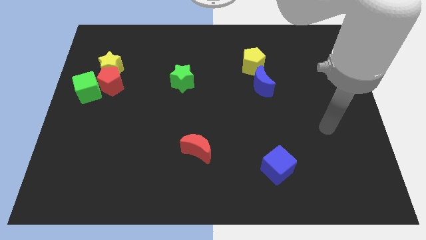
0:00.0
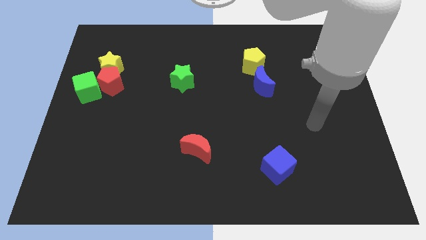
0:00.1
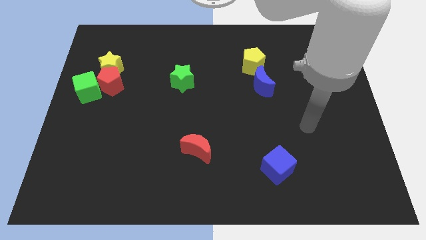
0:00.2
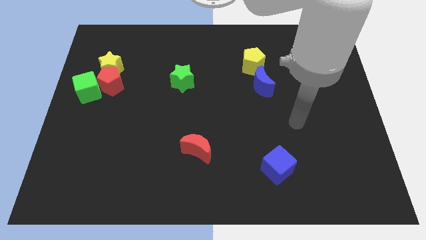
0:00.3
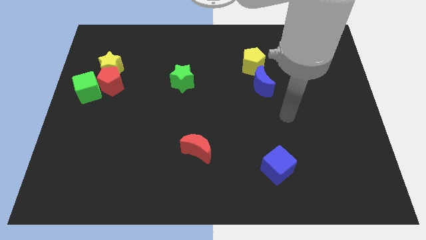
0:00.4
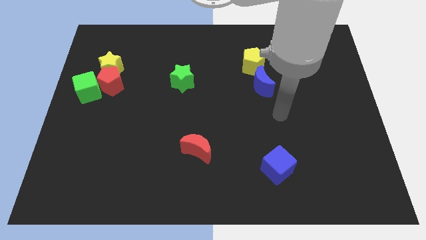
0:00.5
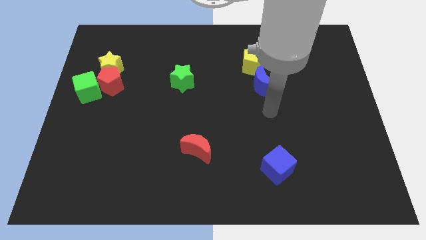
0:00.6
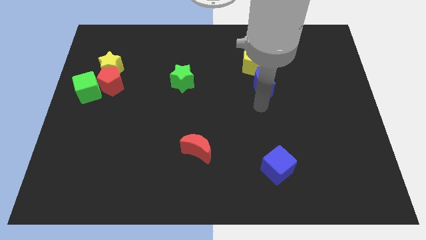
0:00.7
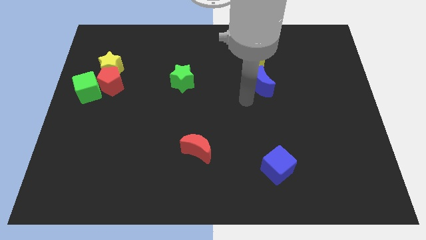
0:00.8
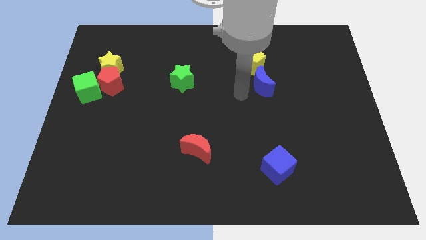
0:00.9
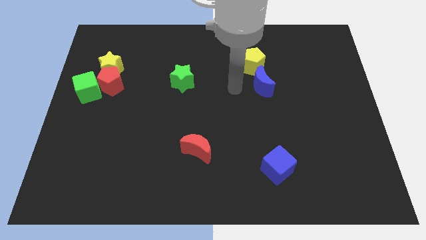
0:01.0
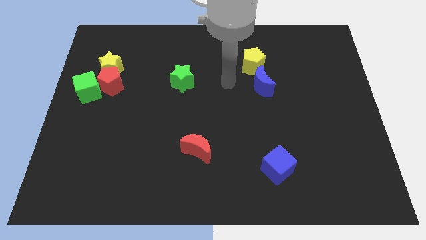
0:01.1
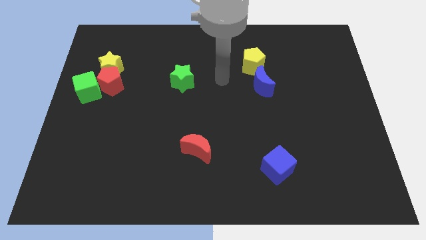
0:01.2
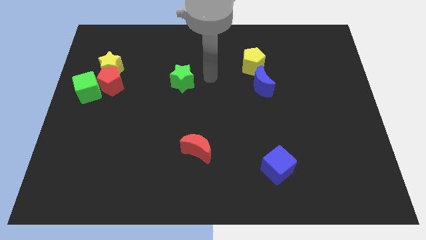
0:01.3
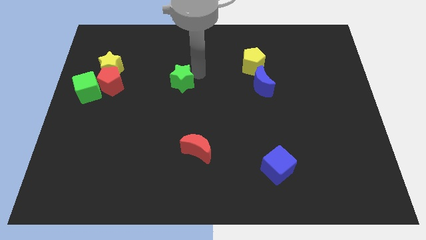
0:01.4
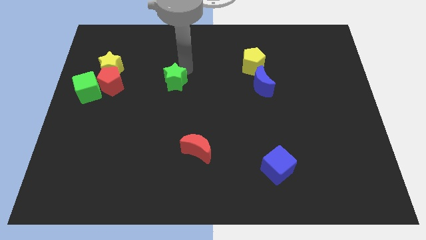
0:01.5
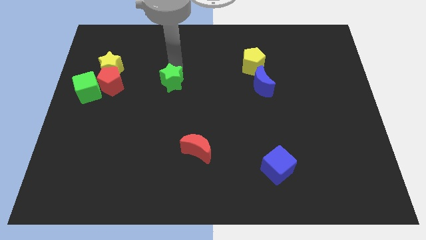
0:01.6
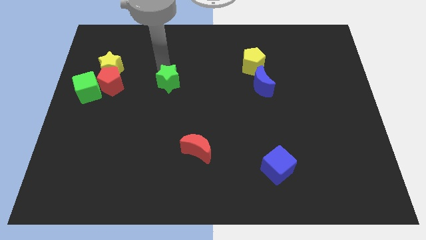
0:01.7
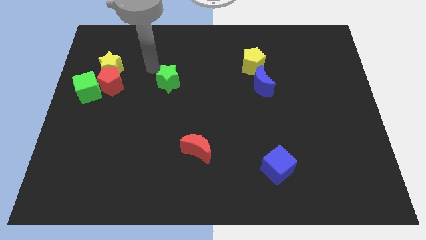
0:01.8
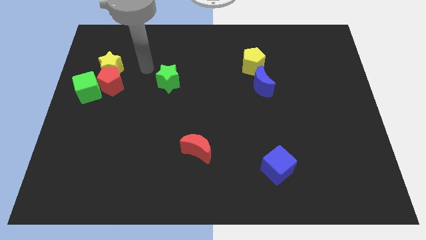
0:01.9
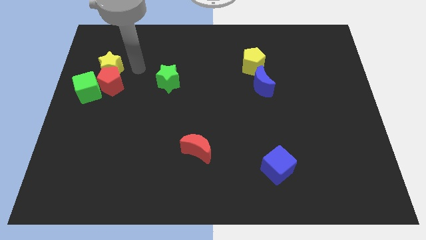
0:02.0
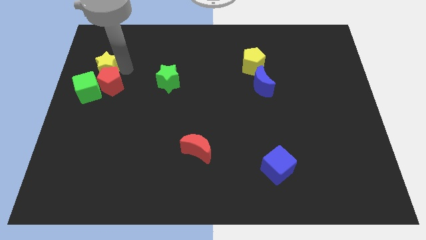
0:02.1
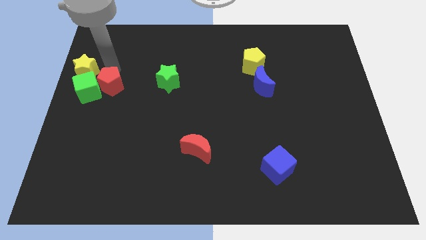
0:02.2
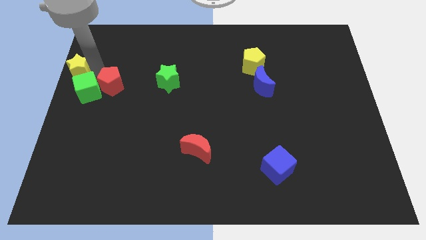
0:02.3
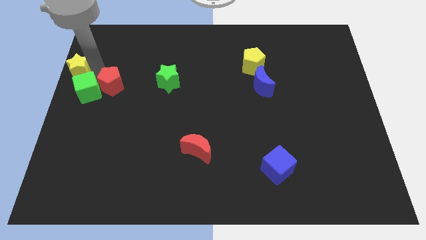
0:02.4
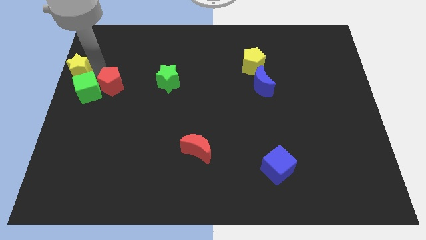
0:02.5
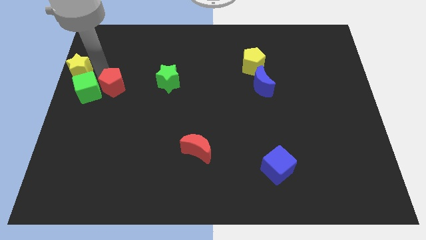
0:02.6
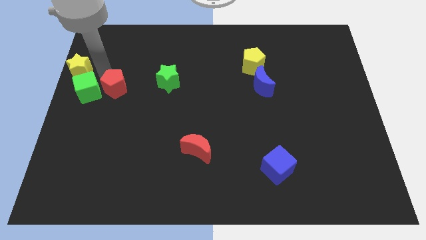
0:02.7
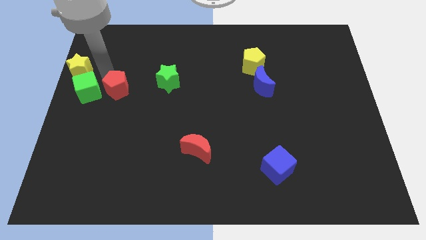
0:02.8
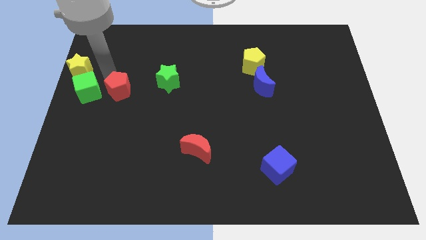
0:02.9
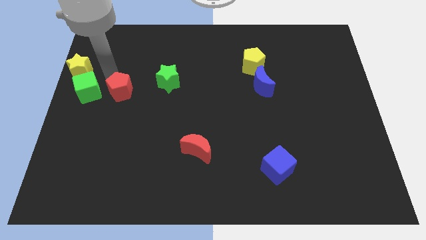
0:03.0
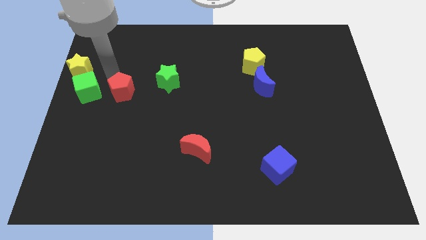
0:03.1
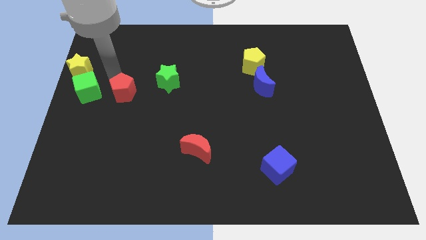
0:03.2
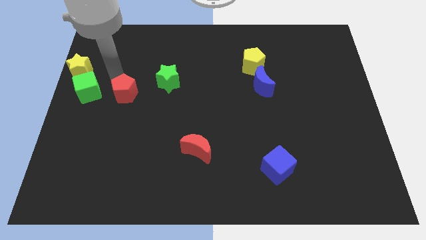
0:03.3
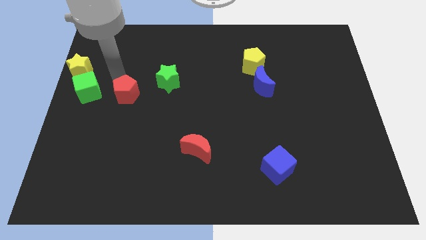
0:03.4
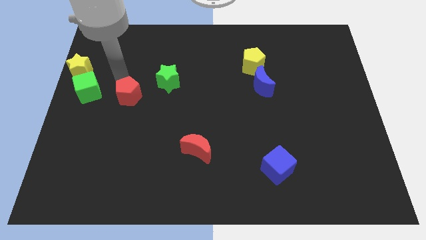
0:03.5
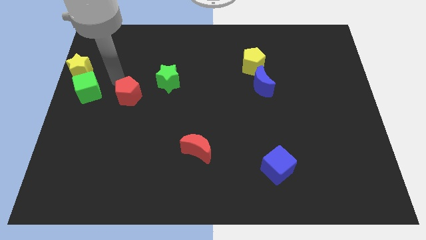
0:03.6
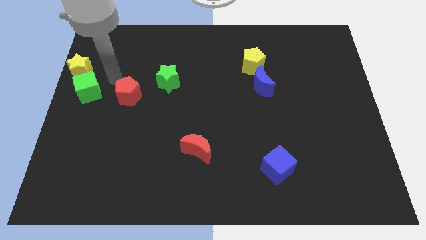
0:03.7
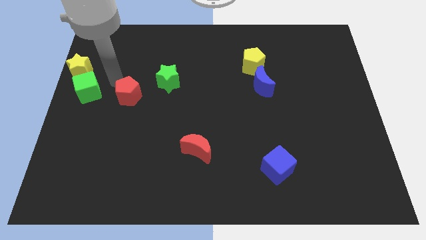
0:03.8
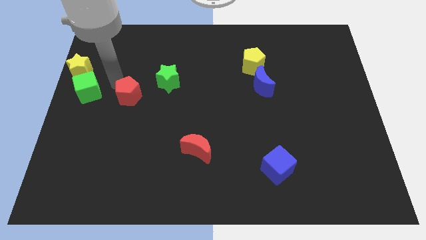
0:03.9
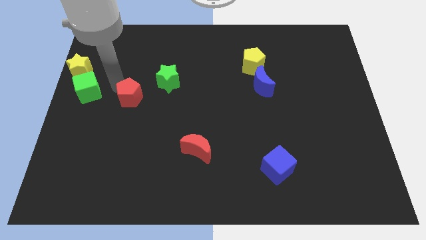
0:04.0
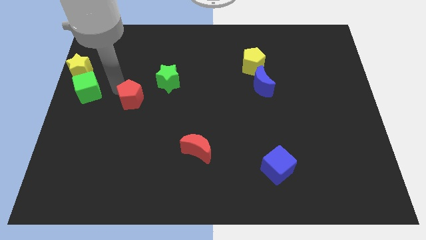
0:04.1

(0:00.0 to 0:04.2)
move the red pentagon slightly diagonally downwards and right

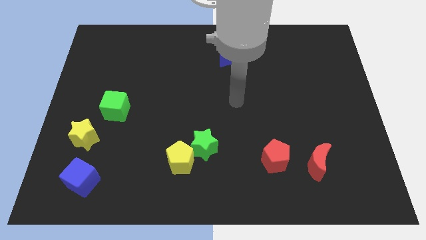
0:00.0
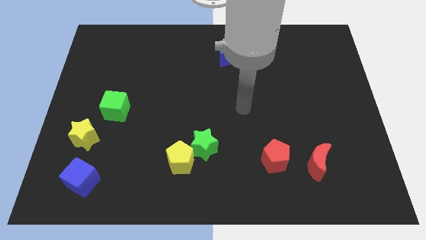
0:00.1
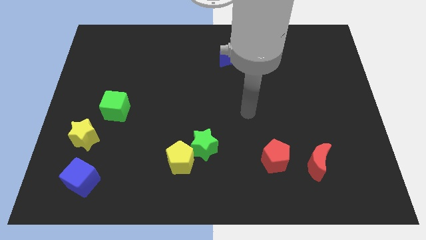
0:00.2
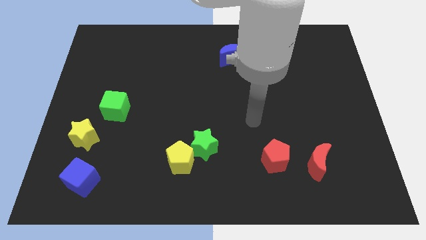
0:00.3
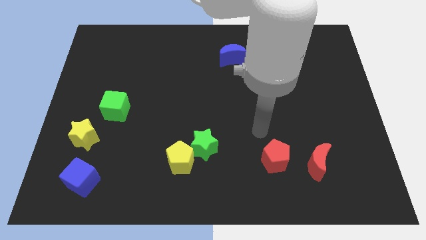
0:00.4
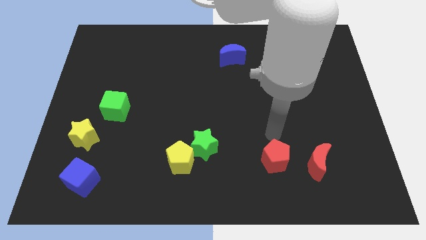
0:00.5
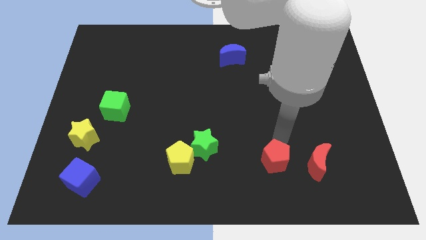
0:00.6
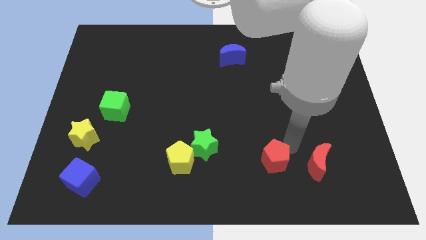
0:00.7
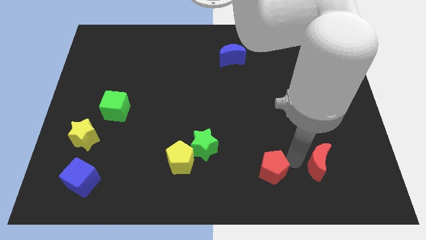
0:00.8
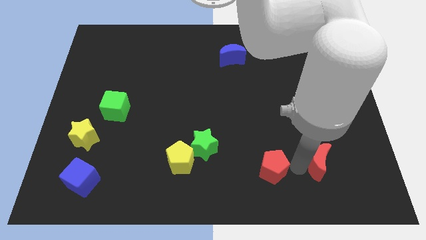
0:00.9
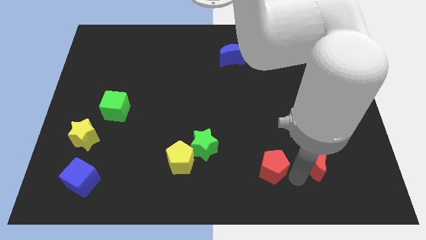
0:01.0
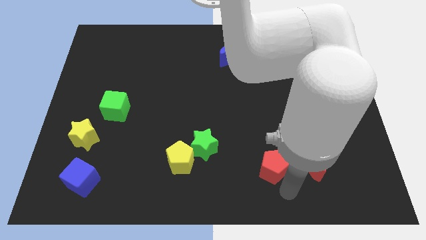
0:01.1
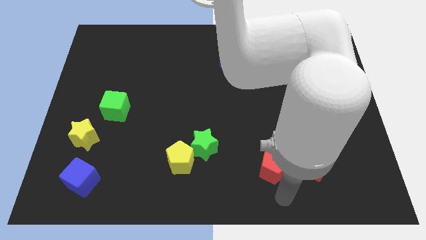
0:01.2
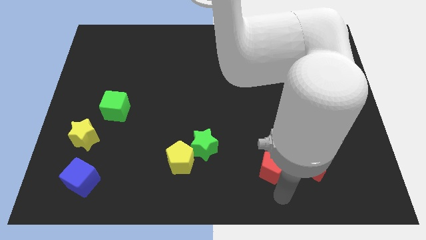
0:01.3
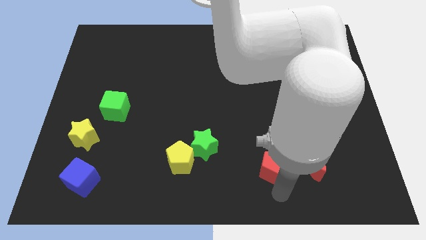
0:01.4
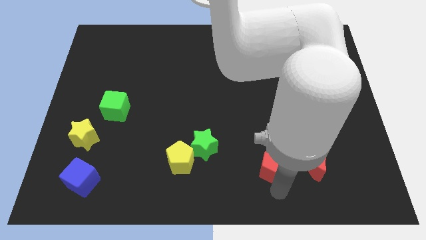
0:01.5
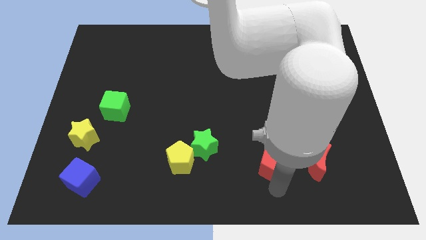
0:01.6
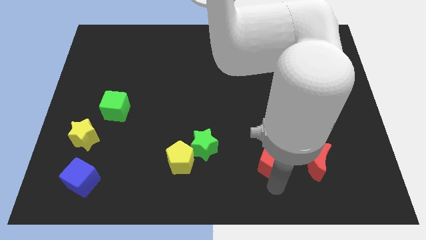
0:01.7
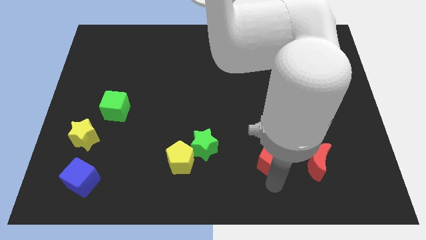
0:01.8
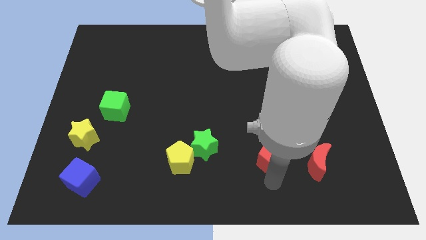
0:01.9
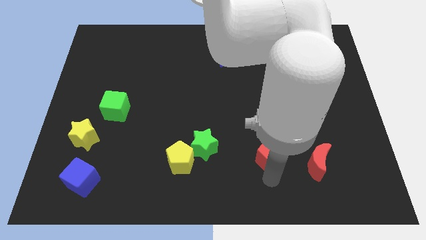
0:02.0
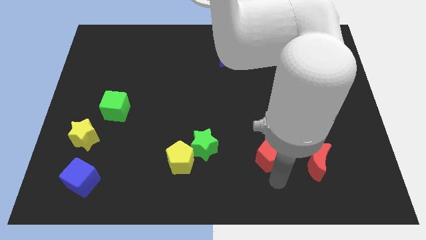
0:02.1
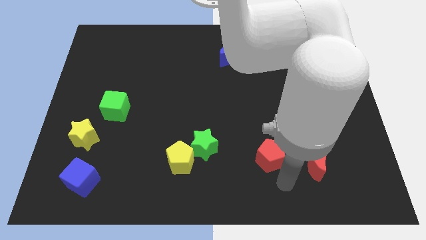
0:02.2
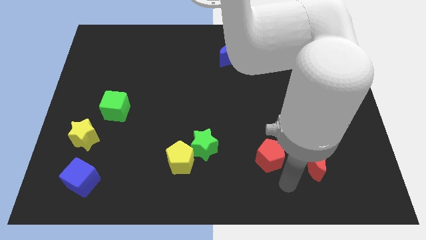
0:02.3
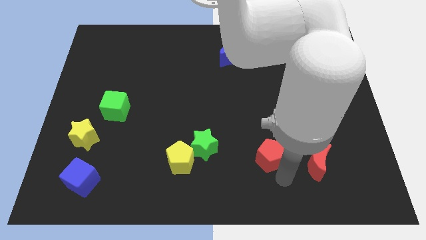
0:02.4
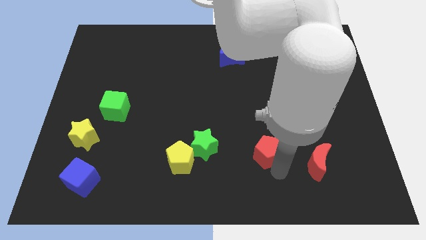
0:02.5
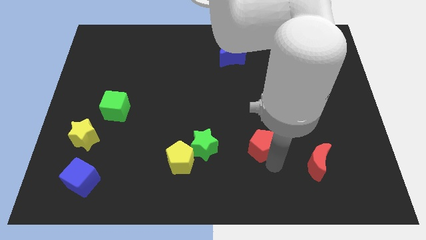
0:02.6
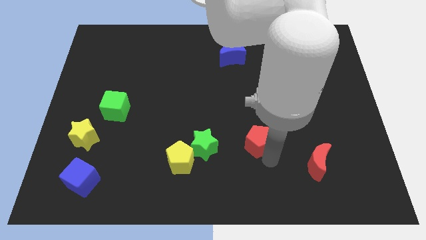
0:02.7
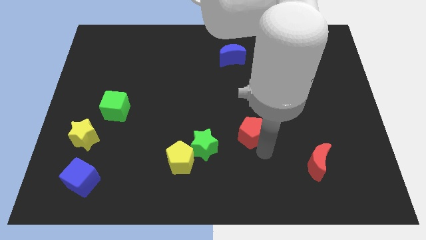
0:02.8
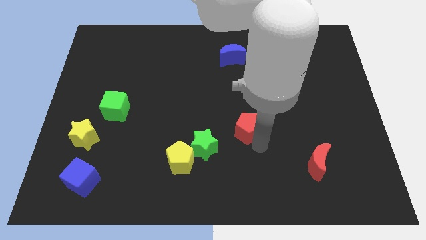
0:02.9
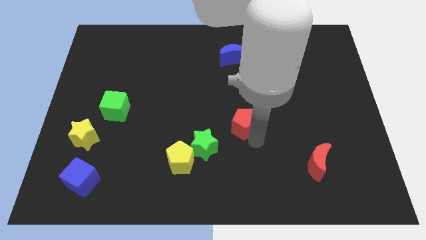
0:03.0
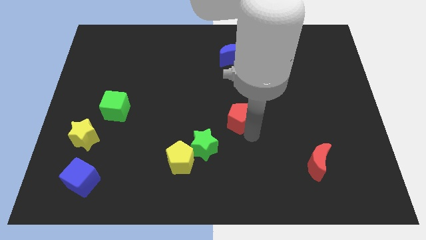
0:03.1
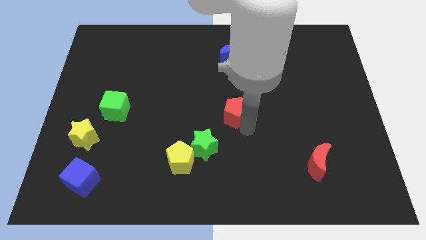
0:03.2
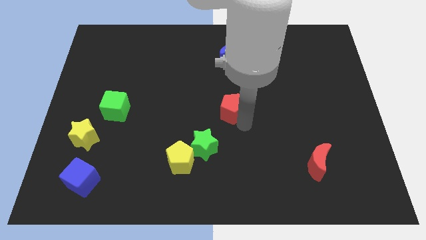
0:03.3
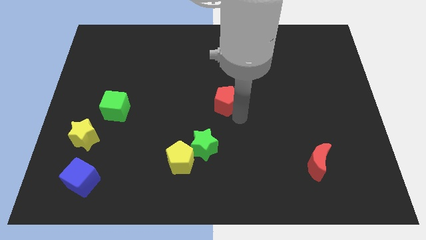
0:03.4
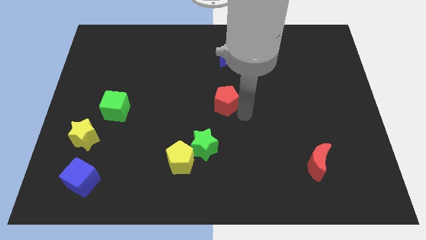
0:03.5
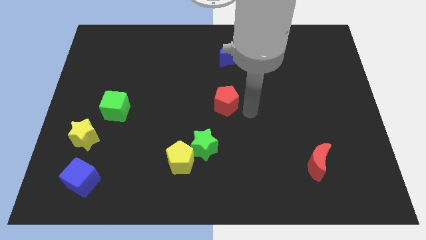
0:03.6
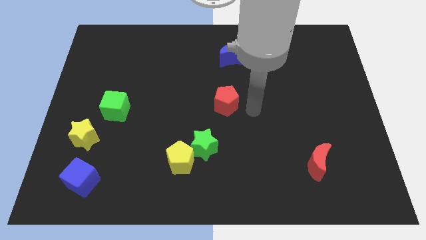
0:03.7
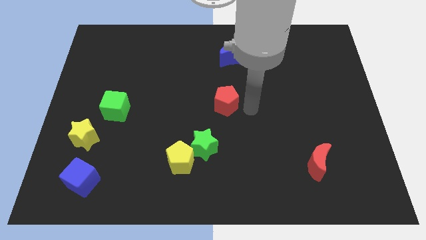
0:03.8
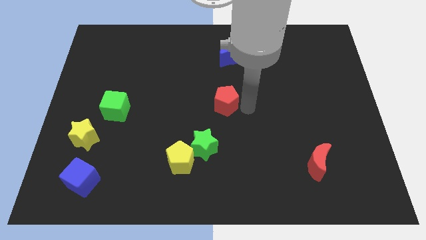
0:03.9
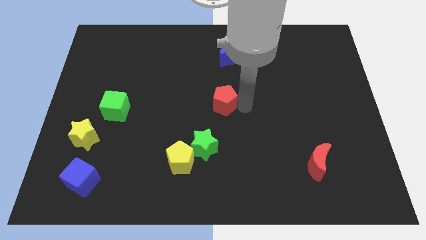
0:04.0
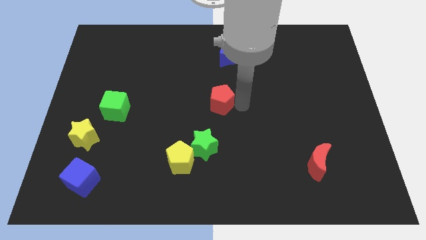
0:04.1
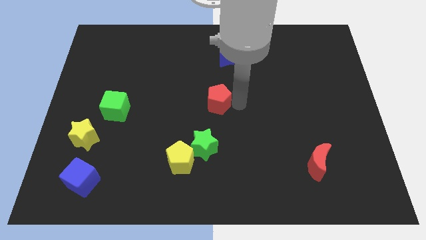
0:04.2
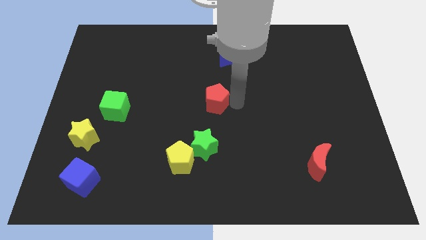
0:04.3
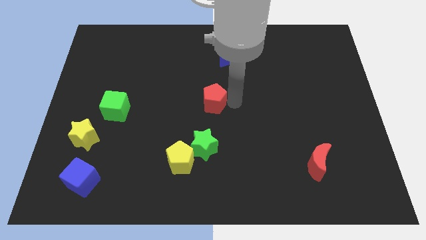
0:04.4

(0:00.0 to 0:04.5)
move the red pentagon upwards and to the left diagonally
